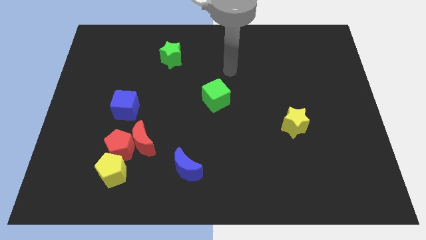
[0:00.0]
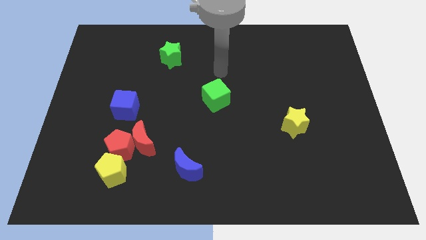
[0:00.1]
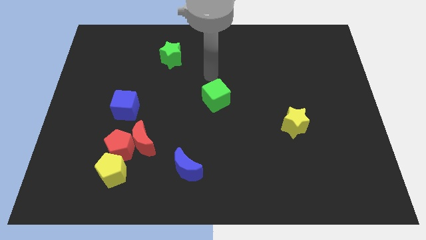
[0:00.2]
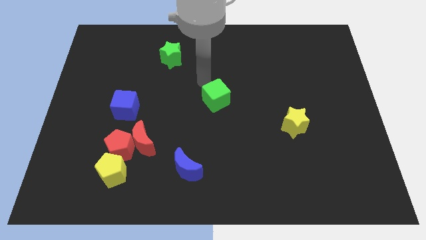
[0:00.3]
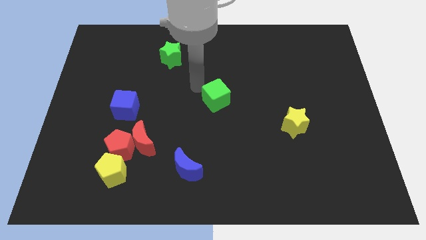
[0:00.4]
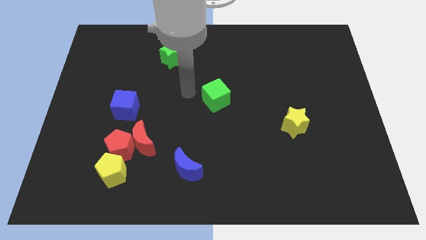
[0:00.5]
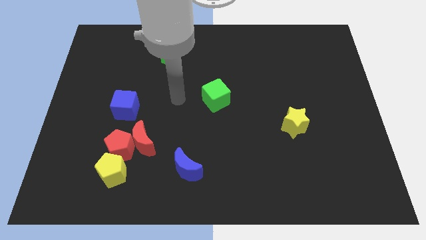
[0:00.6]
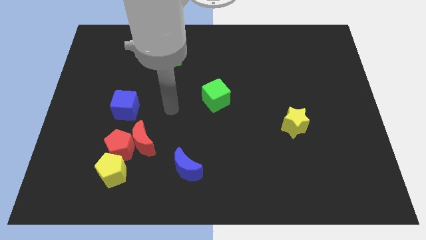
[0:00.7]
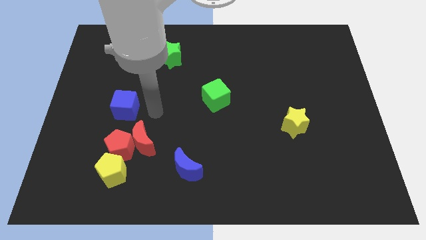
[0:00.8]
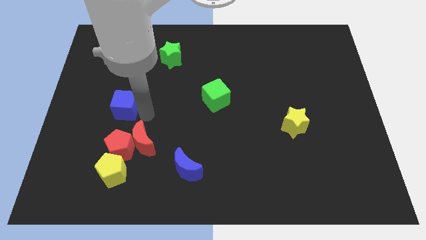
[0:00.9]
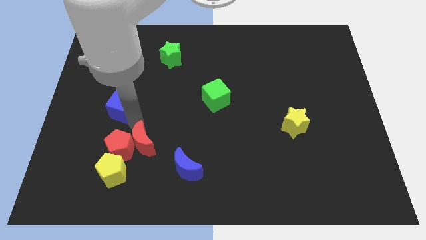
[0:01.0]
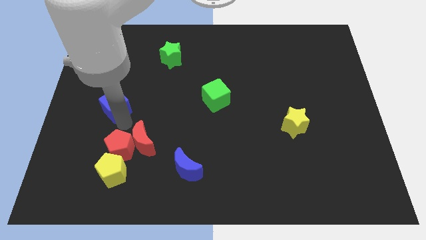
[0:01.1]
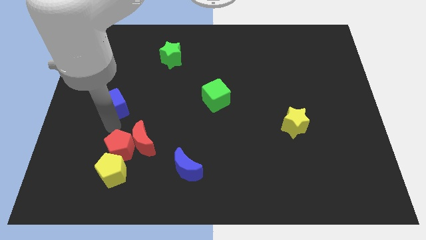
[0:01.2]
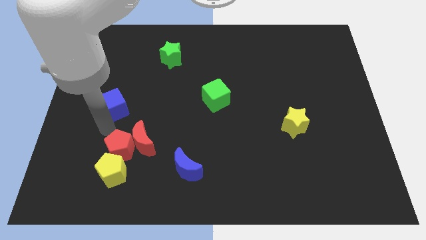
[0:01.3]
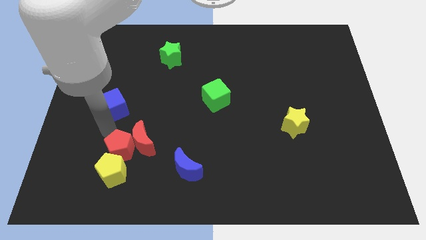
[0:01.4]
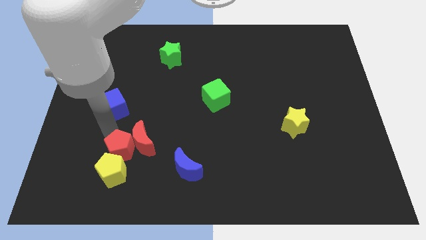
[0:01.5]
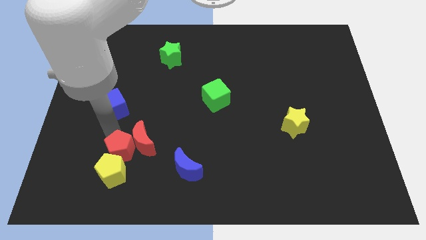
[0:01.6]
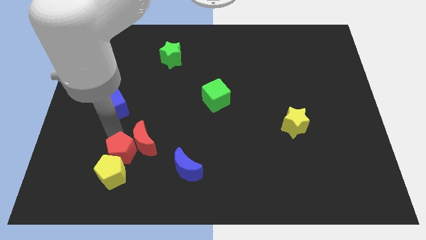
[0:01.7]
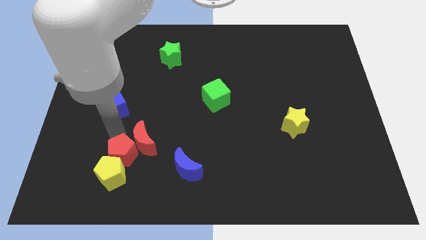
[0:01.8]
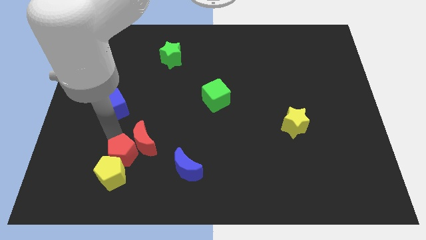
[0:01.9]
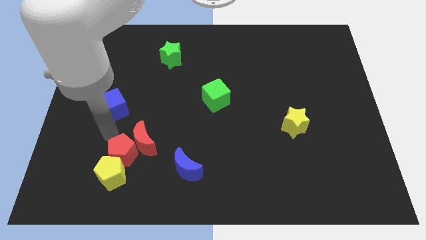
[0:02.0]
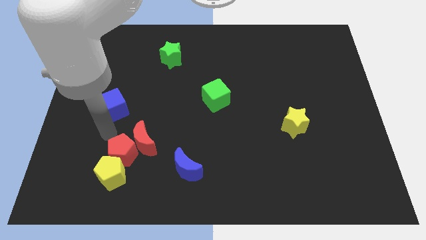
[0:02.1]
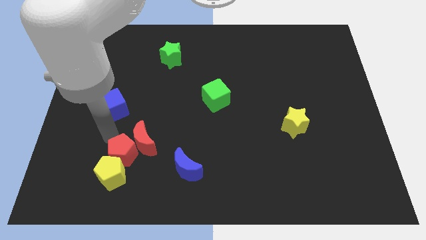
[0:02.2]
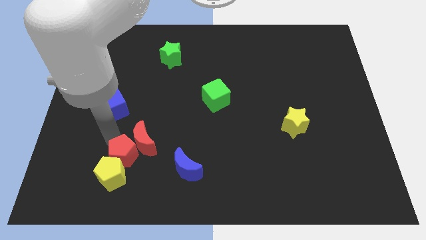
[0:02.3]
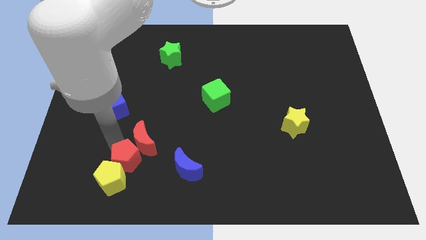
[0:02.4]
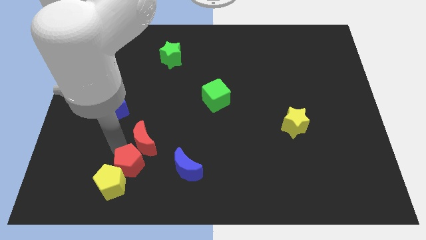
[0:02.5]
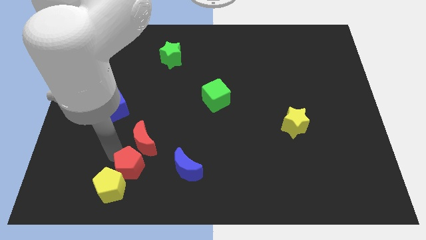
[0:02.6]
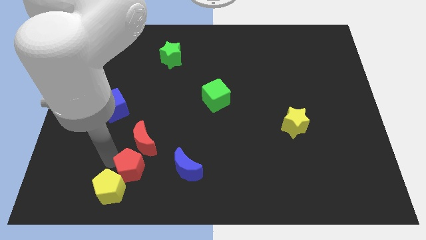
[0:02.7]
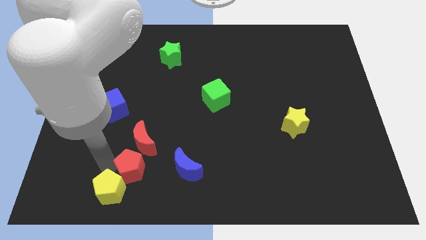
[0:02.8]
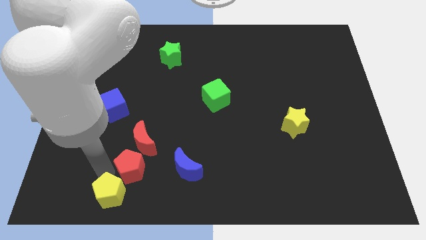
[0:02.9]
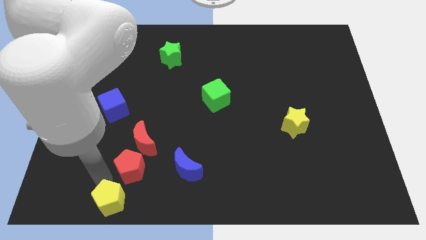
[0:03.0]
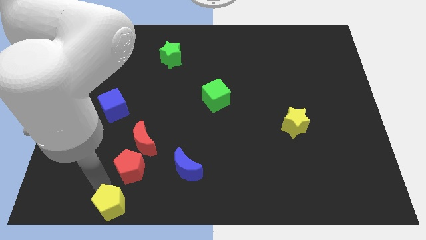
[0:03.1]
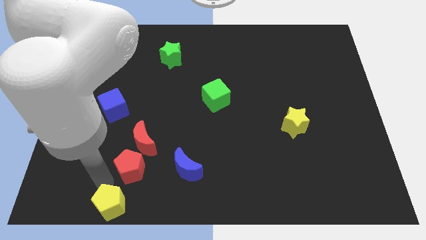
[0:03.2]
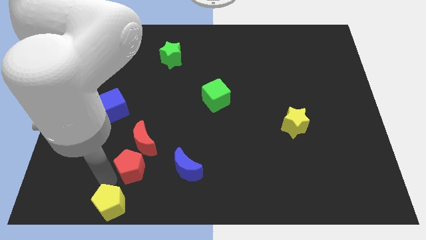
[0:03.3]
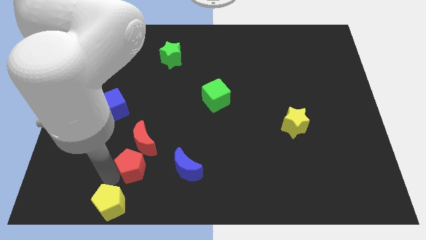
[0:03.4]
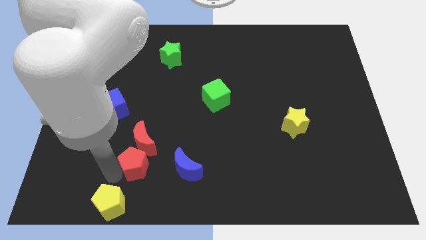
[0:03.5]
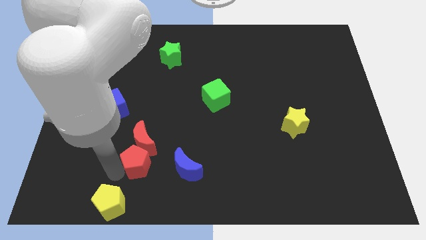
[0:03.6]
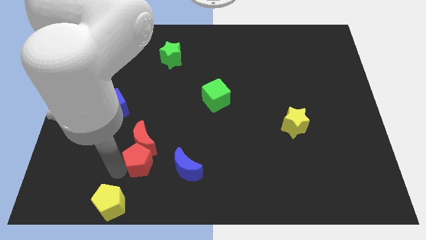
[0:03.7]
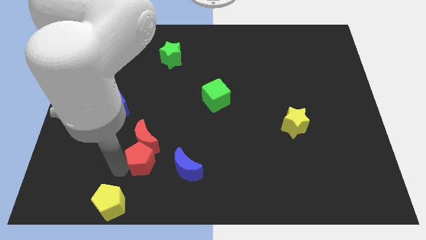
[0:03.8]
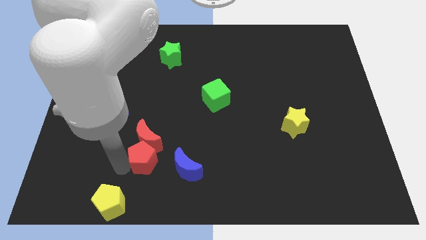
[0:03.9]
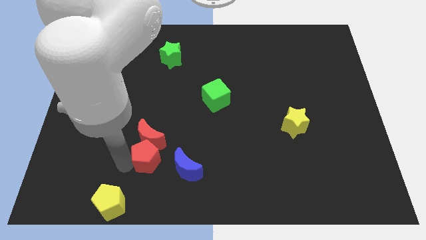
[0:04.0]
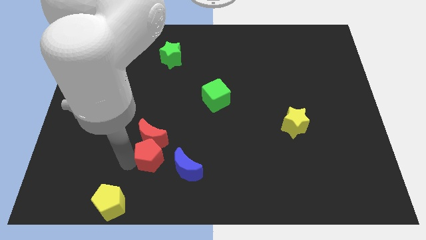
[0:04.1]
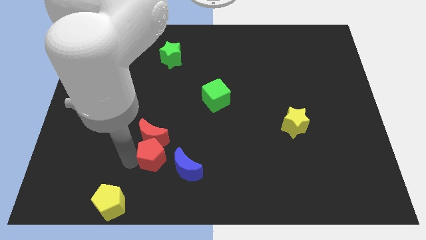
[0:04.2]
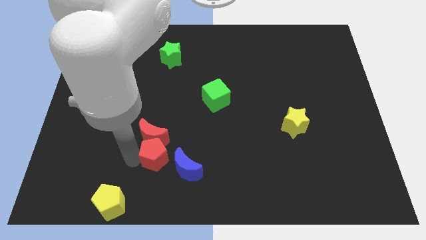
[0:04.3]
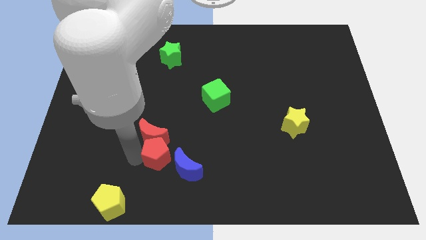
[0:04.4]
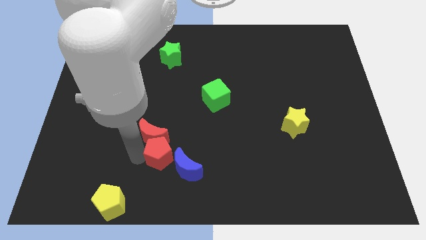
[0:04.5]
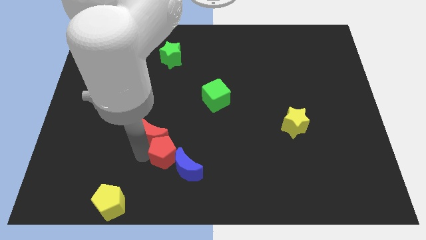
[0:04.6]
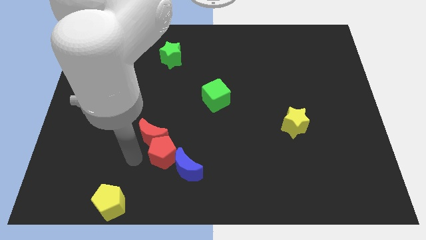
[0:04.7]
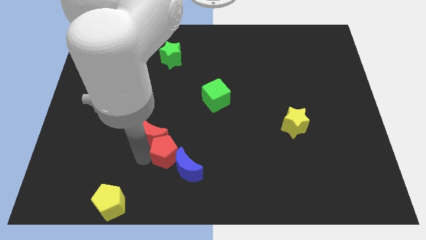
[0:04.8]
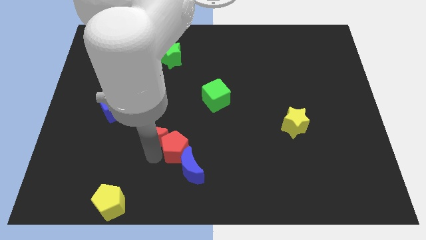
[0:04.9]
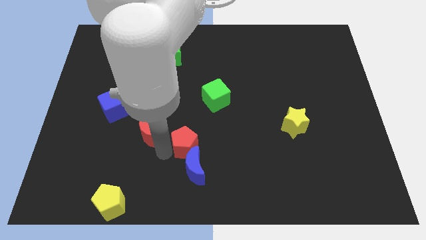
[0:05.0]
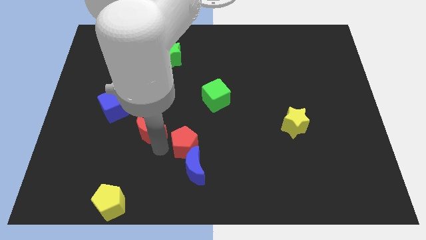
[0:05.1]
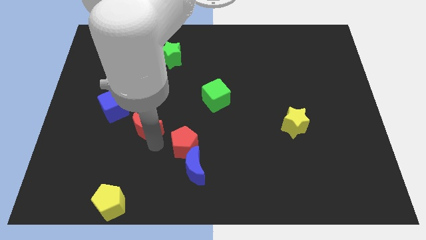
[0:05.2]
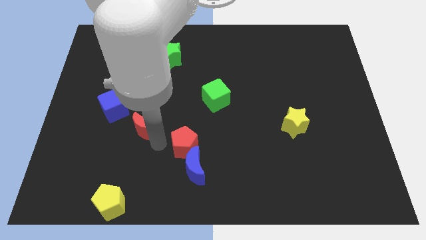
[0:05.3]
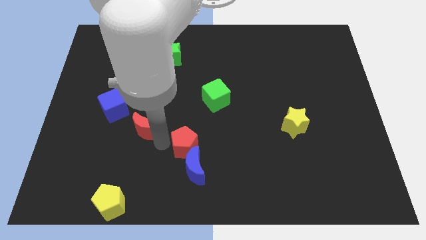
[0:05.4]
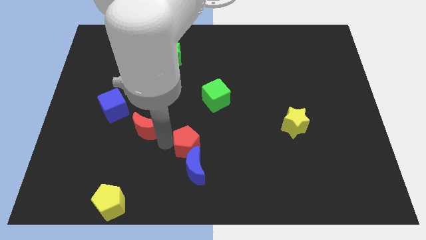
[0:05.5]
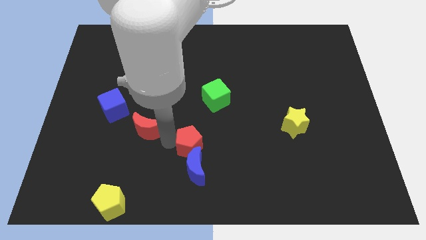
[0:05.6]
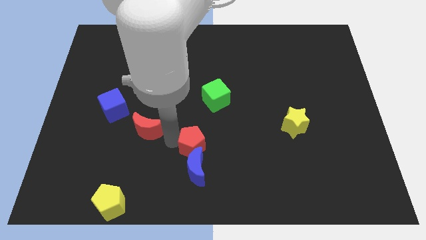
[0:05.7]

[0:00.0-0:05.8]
slide the red pentagon to the top right side of the blue moon

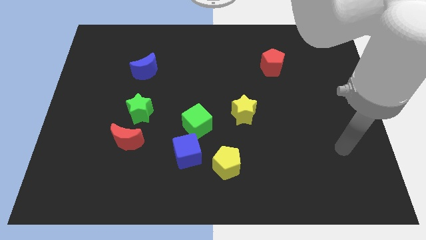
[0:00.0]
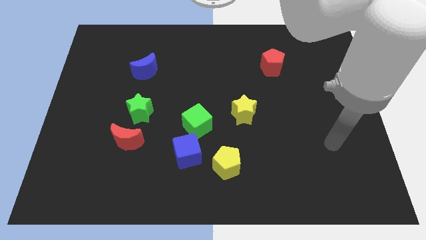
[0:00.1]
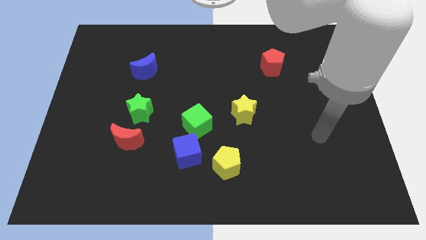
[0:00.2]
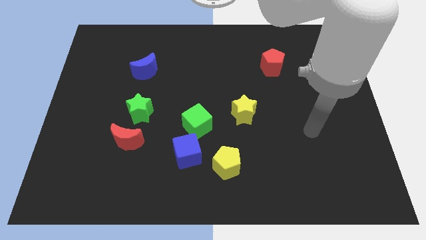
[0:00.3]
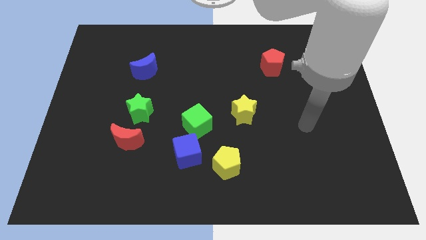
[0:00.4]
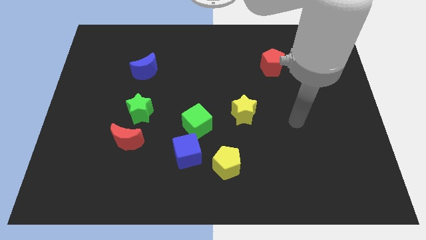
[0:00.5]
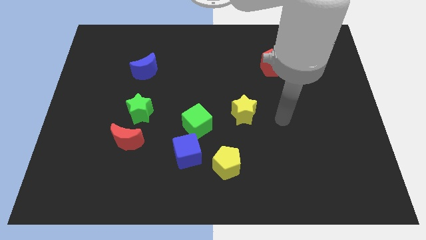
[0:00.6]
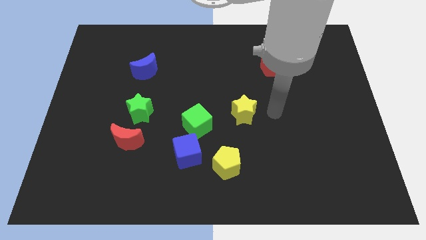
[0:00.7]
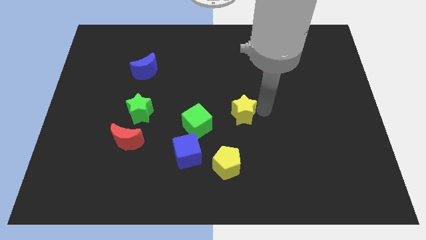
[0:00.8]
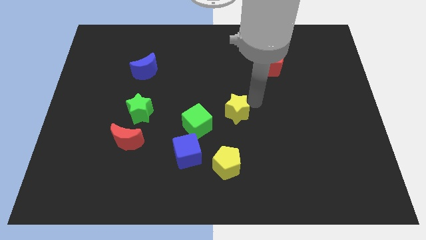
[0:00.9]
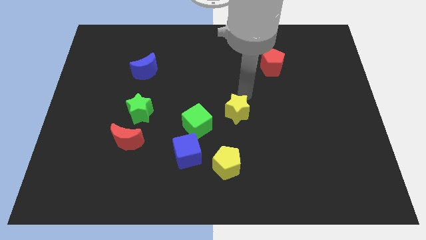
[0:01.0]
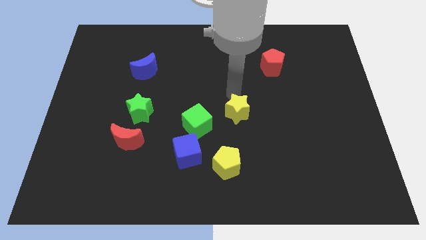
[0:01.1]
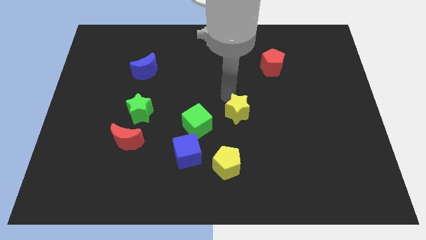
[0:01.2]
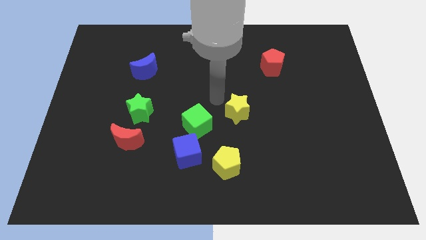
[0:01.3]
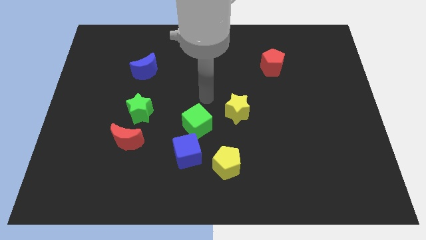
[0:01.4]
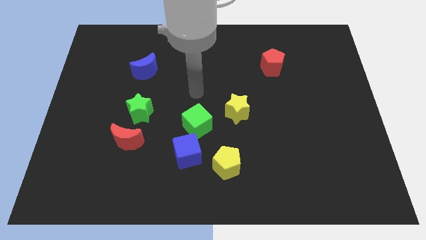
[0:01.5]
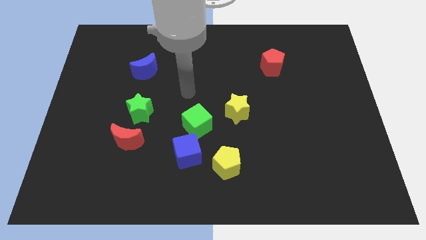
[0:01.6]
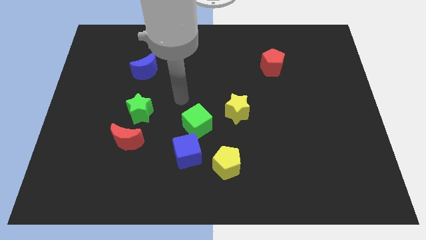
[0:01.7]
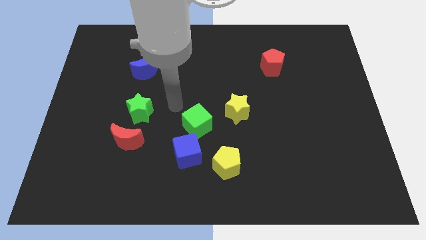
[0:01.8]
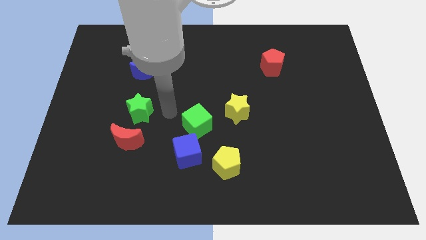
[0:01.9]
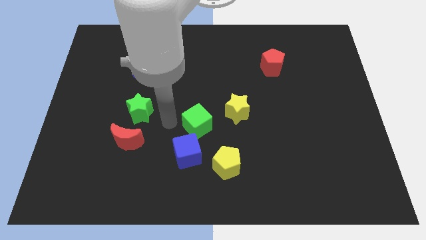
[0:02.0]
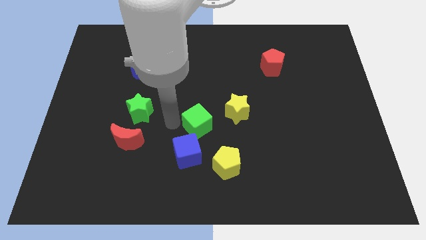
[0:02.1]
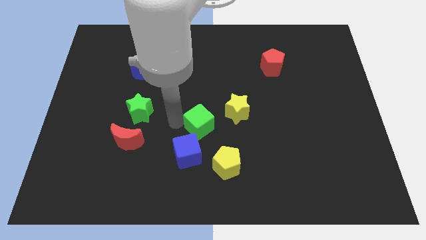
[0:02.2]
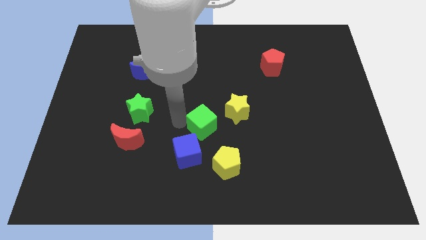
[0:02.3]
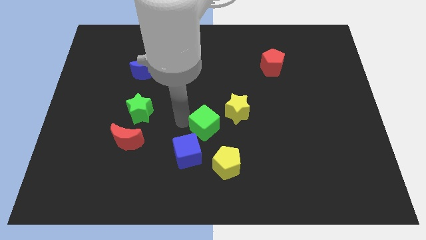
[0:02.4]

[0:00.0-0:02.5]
put the green cube to the top of the yellow pentagon
